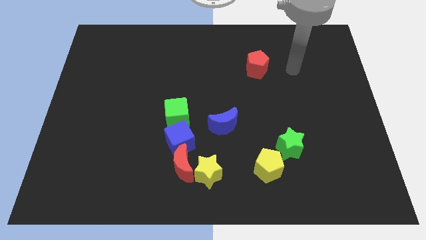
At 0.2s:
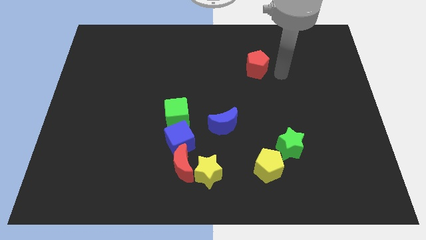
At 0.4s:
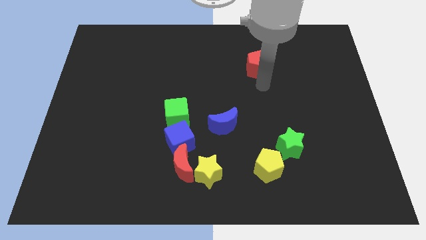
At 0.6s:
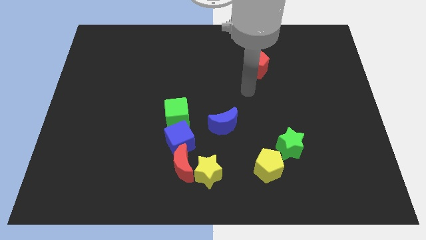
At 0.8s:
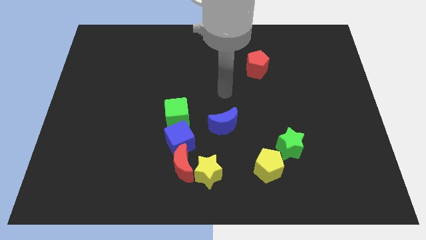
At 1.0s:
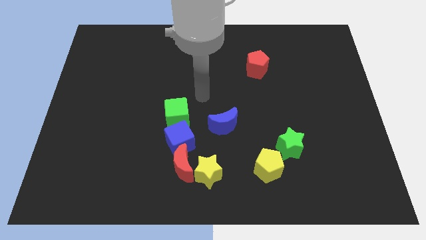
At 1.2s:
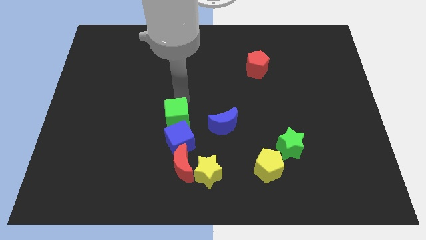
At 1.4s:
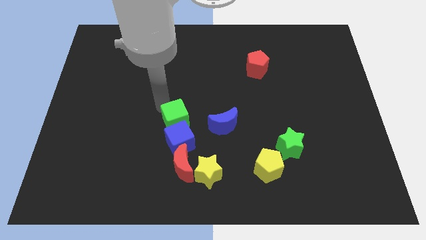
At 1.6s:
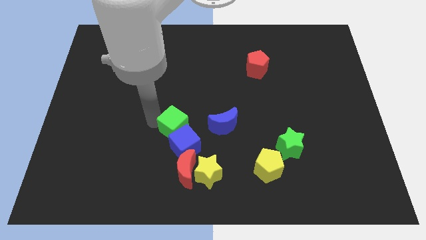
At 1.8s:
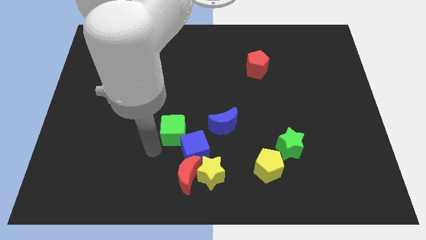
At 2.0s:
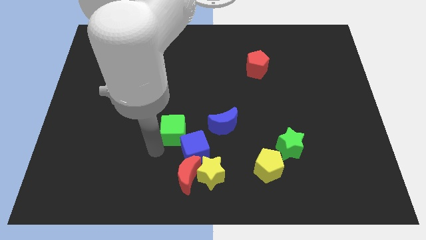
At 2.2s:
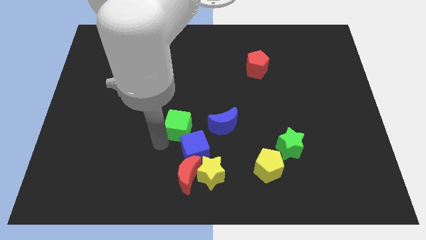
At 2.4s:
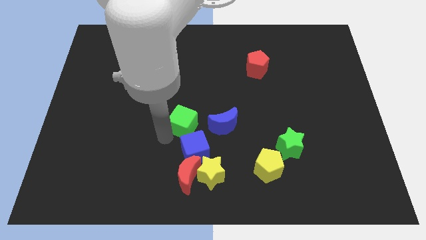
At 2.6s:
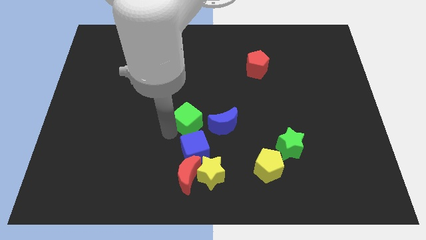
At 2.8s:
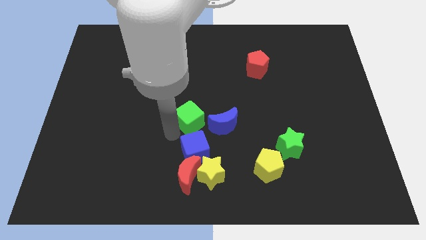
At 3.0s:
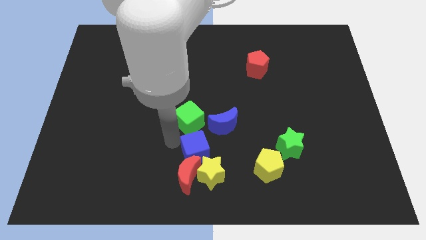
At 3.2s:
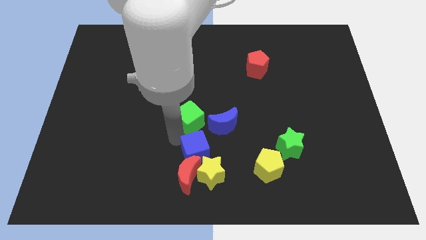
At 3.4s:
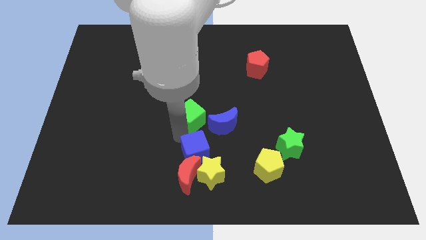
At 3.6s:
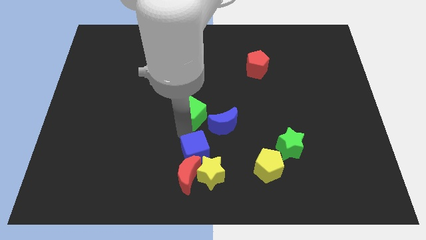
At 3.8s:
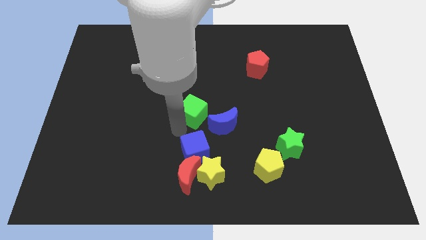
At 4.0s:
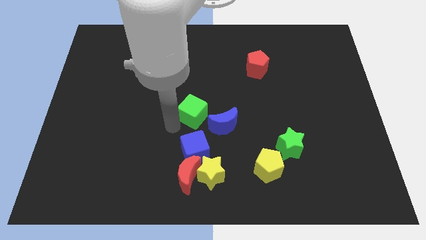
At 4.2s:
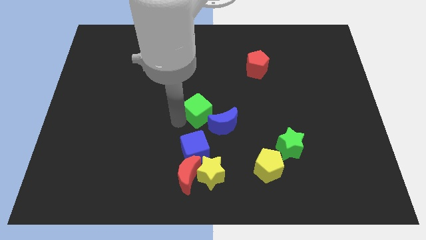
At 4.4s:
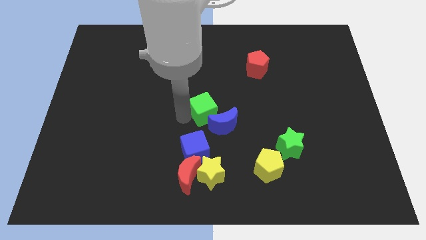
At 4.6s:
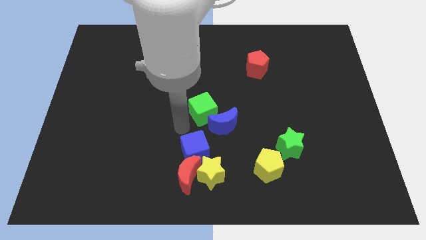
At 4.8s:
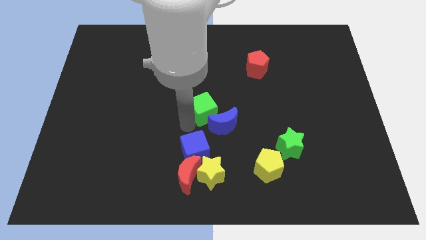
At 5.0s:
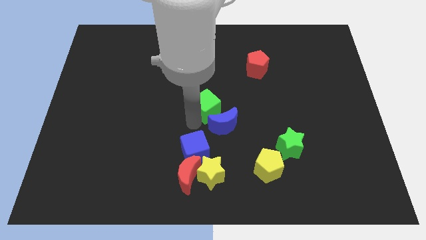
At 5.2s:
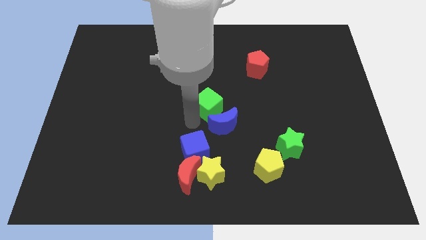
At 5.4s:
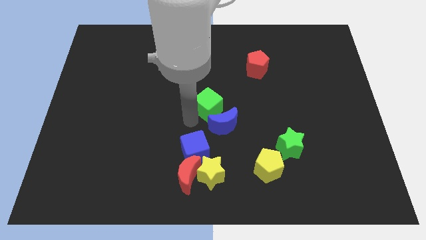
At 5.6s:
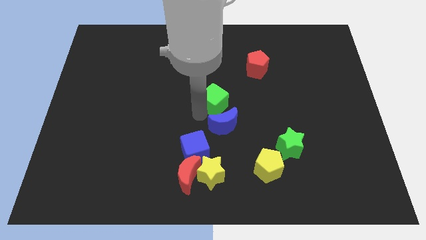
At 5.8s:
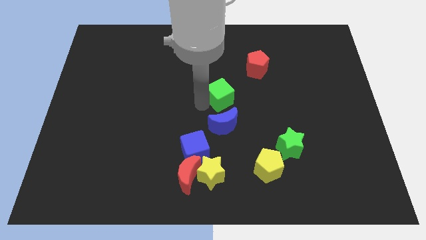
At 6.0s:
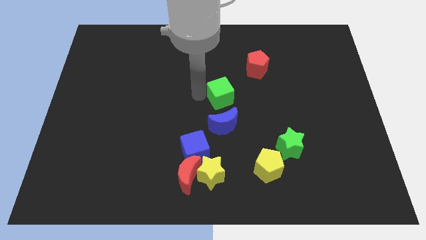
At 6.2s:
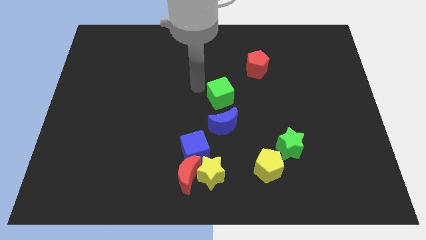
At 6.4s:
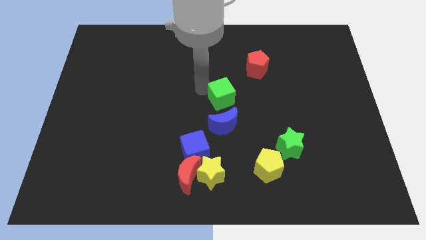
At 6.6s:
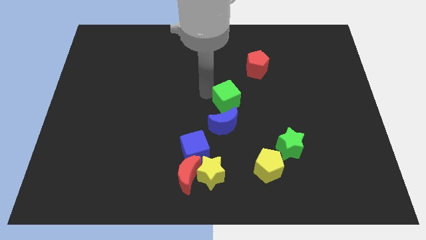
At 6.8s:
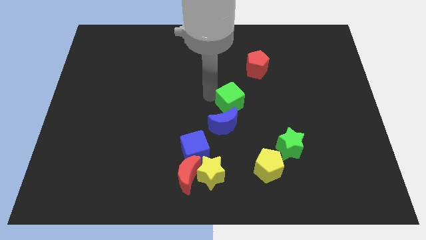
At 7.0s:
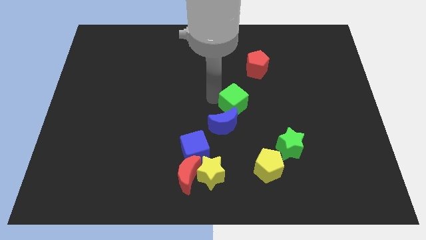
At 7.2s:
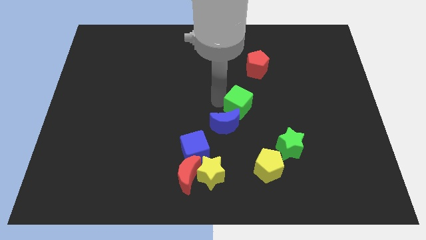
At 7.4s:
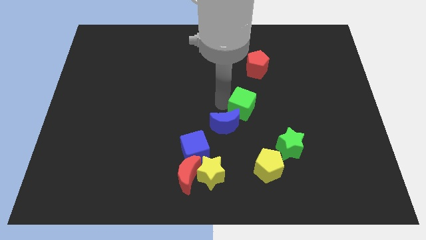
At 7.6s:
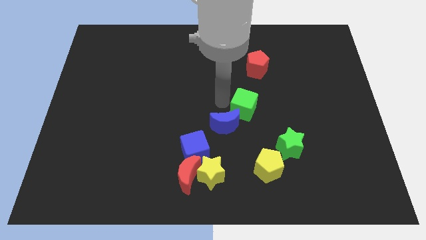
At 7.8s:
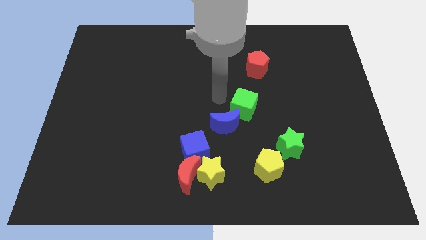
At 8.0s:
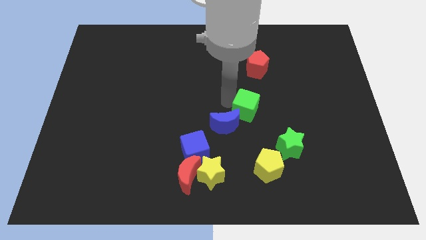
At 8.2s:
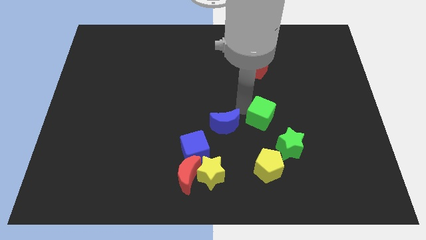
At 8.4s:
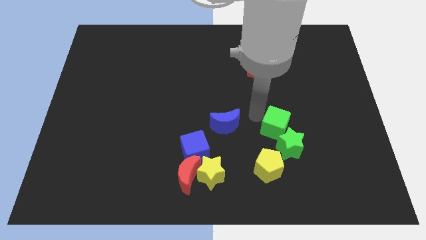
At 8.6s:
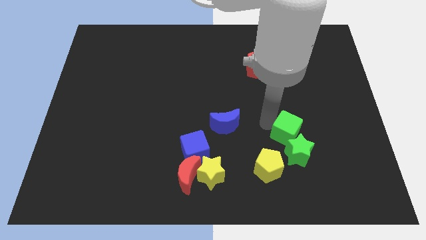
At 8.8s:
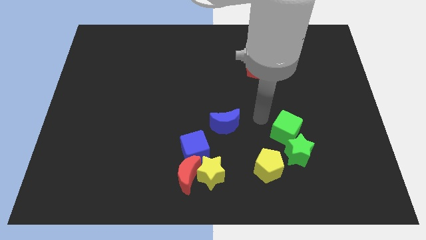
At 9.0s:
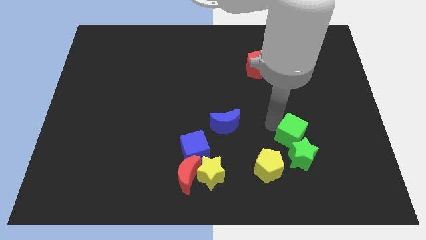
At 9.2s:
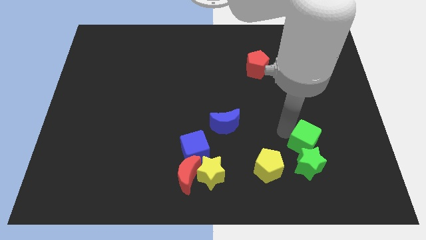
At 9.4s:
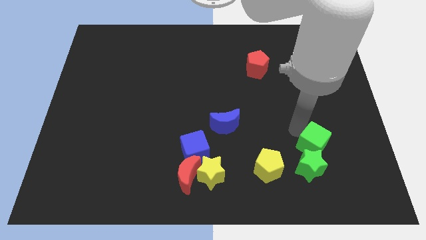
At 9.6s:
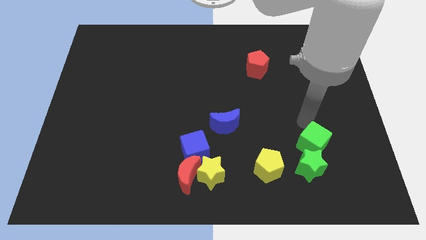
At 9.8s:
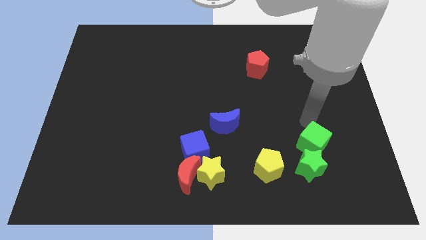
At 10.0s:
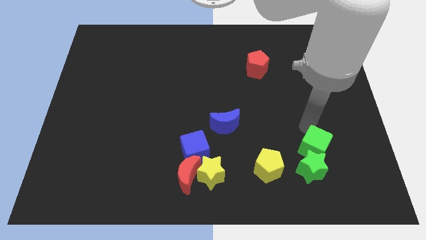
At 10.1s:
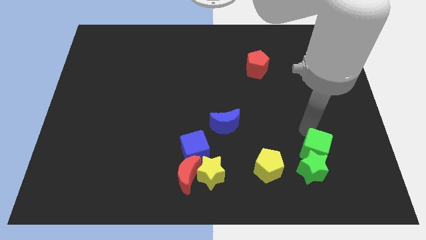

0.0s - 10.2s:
push the green cube to the right of the yellow pentagon

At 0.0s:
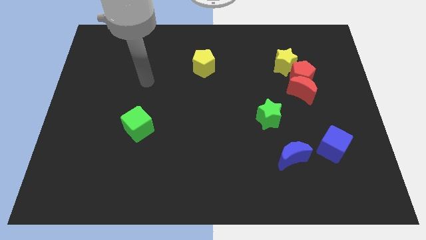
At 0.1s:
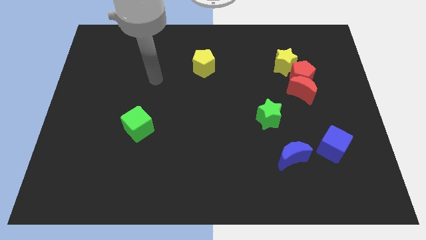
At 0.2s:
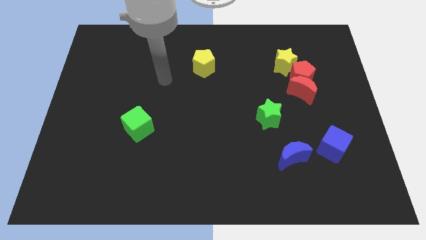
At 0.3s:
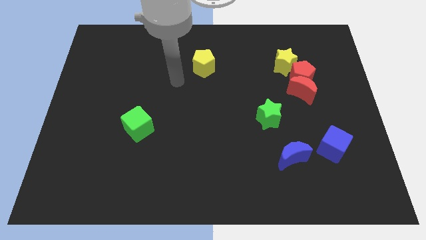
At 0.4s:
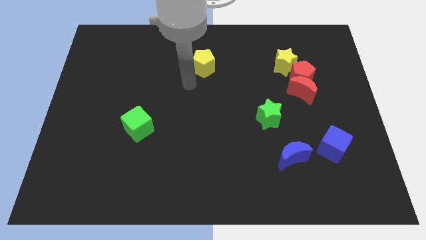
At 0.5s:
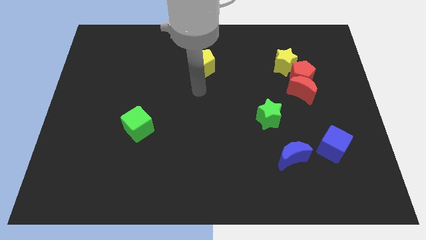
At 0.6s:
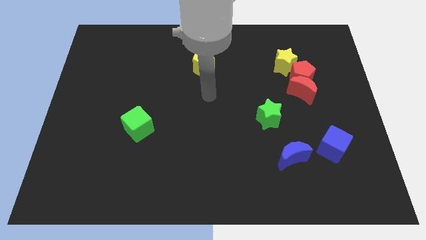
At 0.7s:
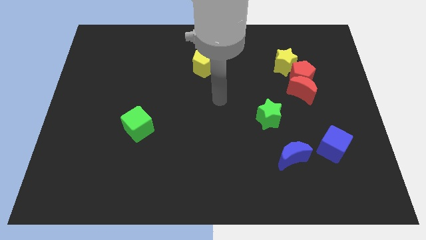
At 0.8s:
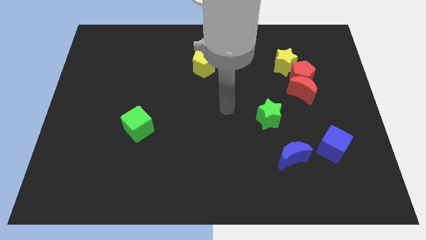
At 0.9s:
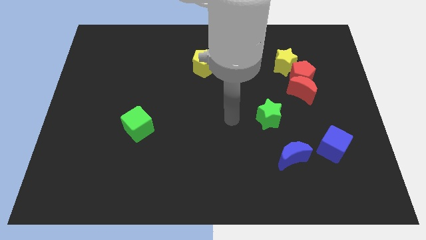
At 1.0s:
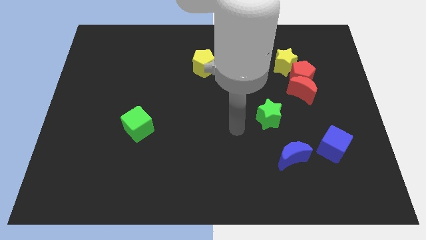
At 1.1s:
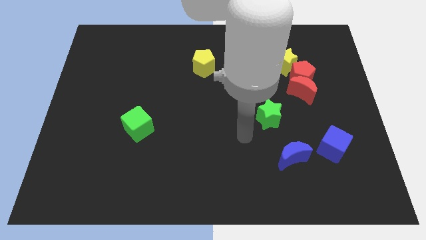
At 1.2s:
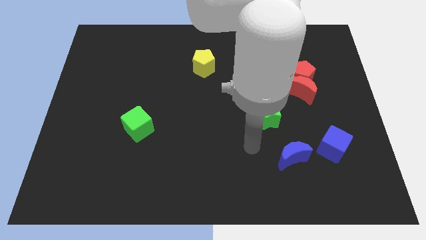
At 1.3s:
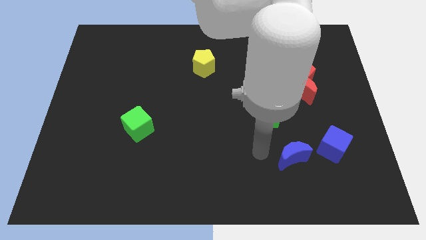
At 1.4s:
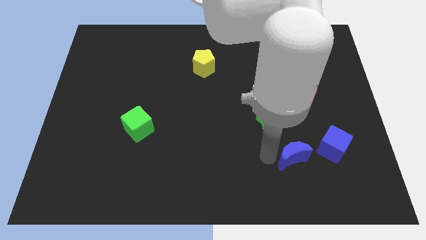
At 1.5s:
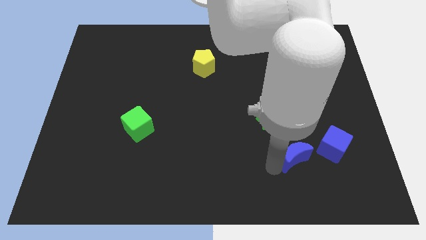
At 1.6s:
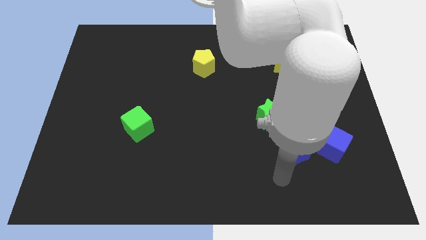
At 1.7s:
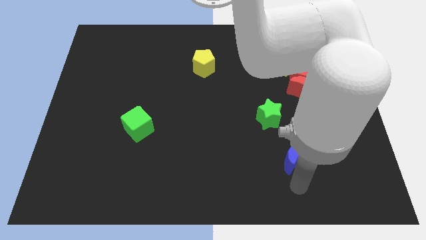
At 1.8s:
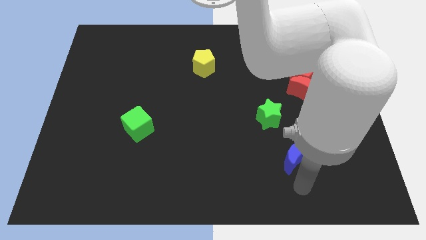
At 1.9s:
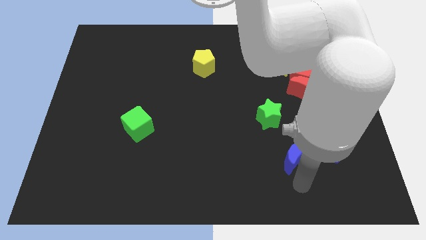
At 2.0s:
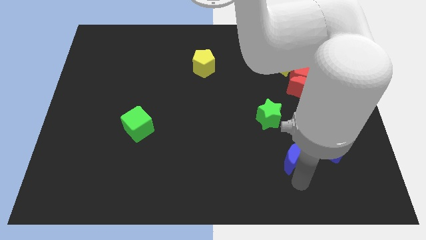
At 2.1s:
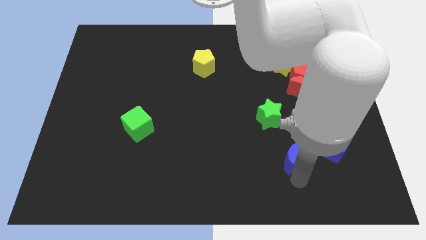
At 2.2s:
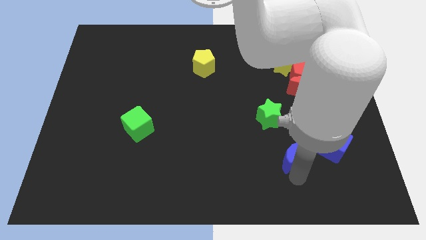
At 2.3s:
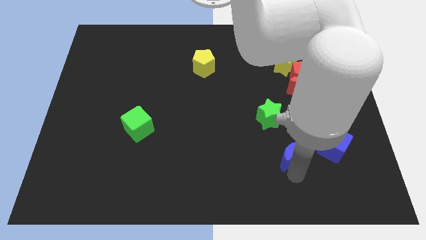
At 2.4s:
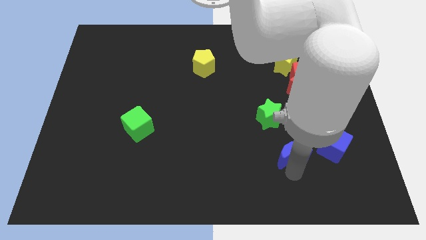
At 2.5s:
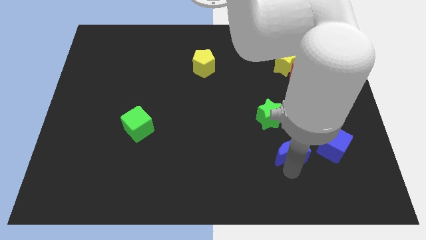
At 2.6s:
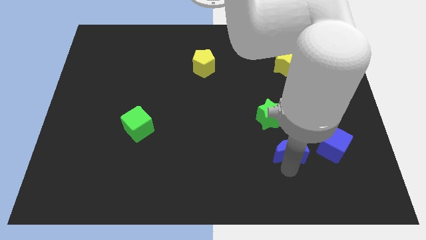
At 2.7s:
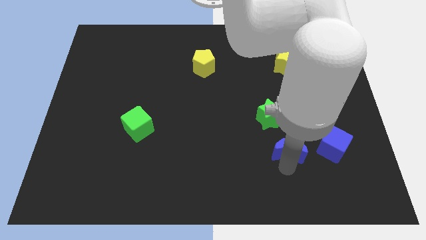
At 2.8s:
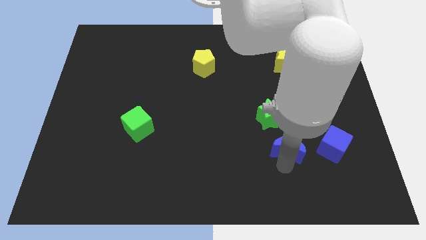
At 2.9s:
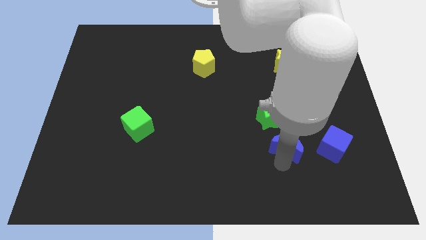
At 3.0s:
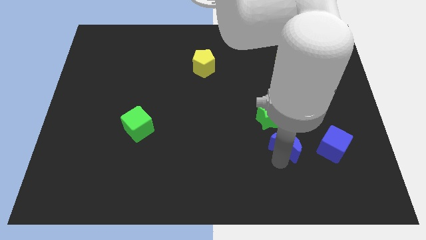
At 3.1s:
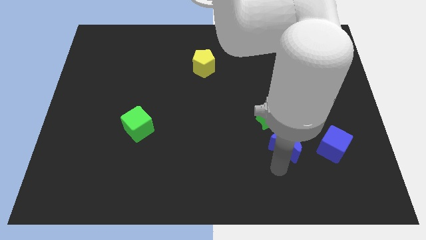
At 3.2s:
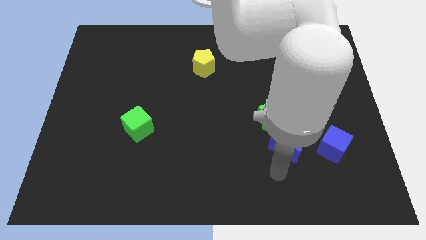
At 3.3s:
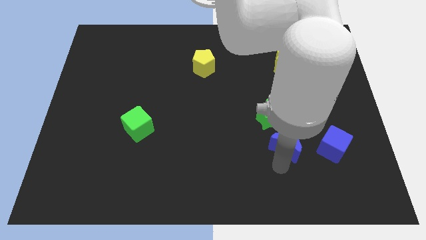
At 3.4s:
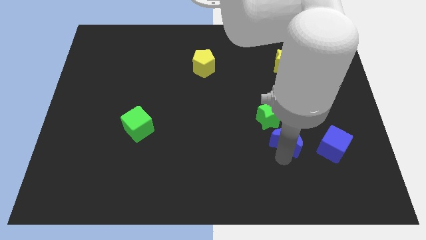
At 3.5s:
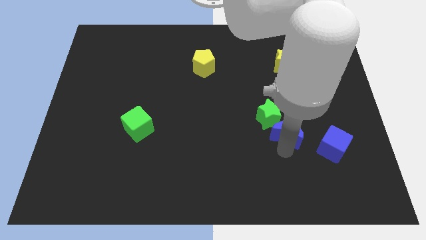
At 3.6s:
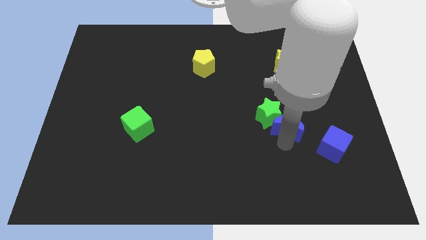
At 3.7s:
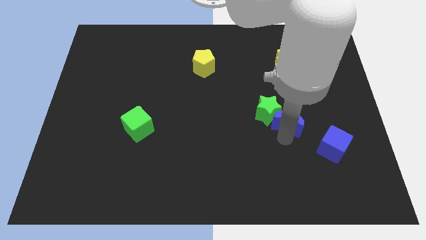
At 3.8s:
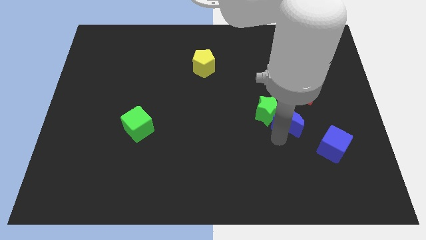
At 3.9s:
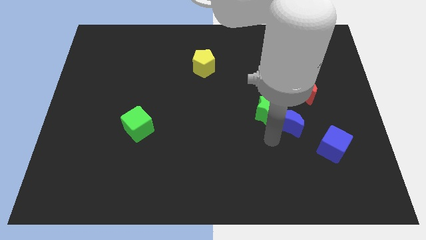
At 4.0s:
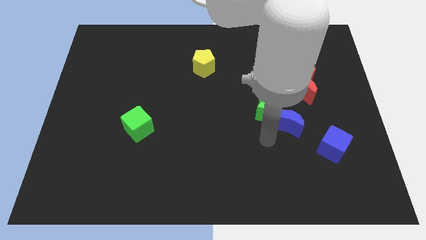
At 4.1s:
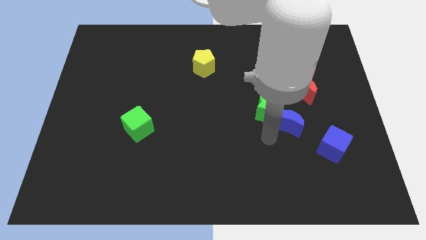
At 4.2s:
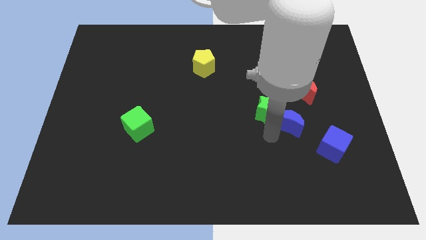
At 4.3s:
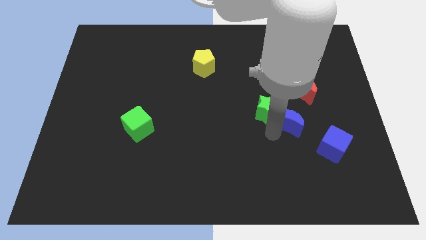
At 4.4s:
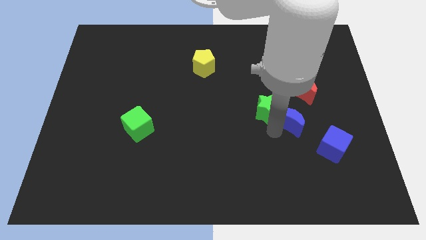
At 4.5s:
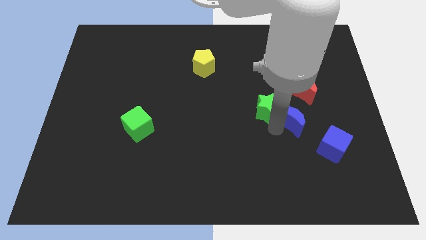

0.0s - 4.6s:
push the blue moon below the red pentagon
